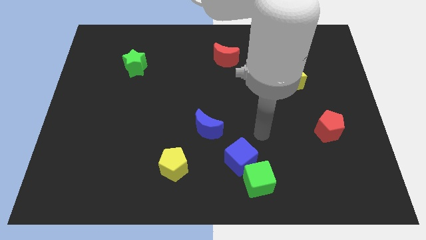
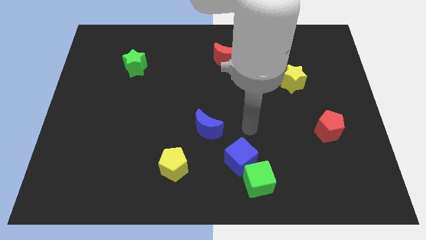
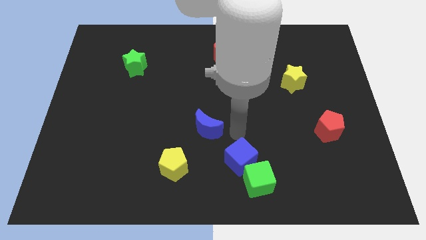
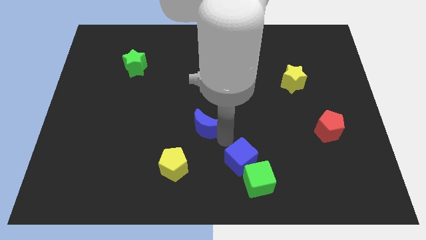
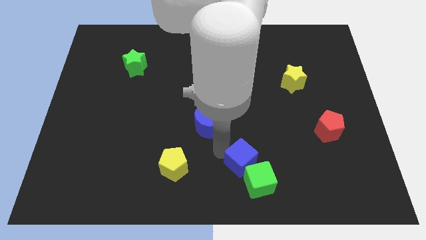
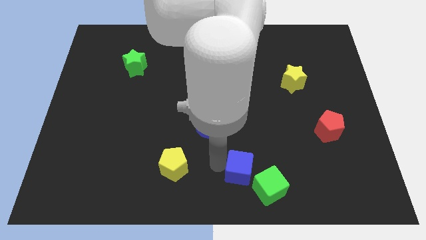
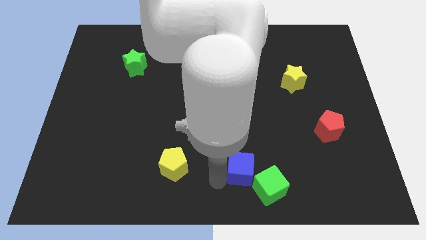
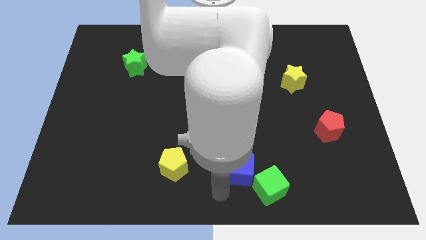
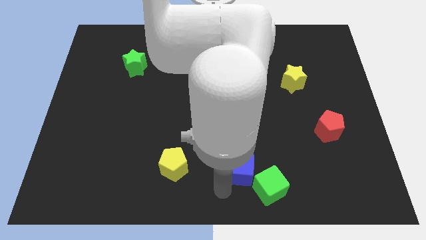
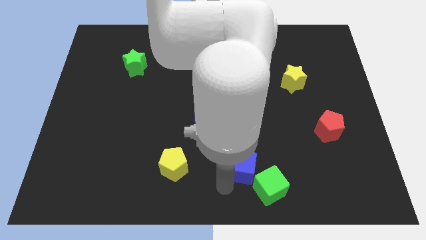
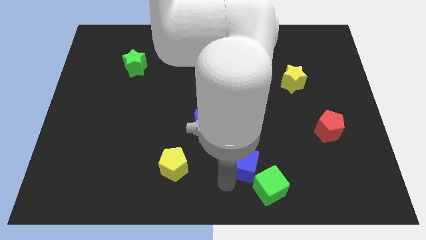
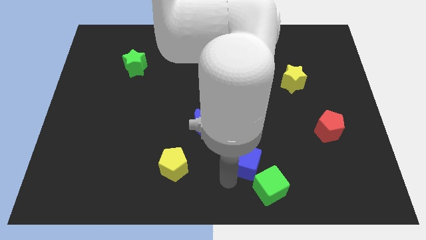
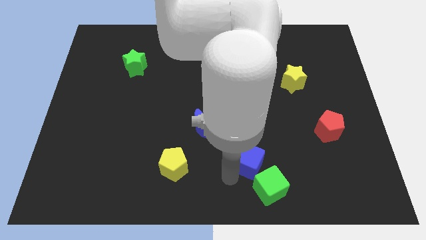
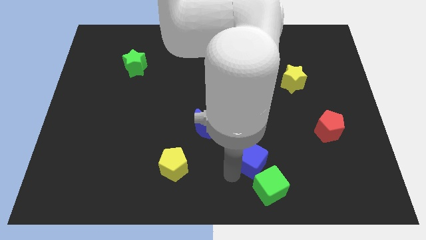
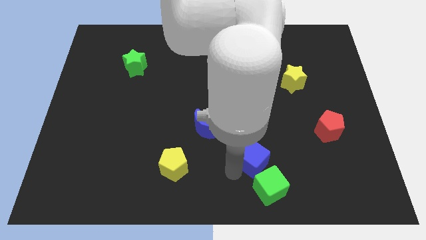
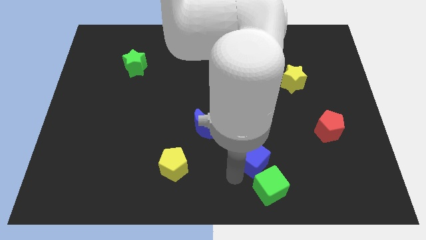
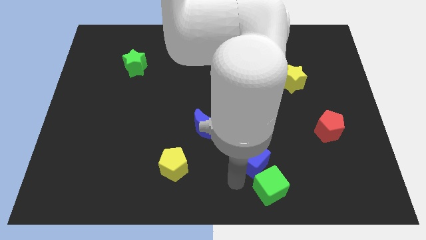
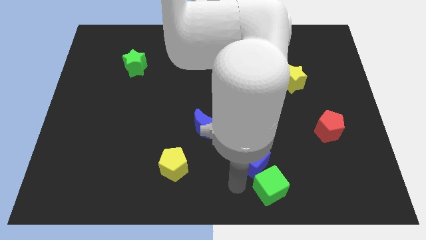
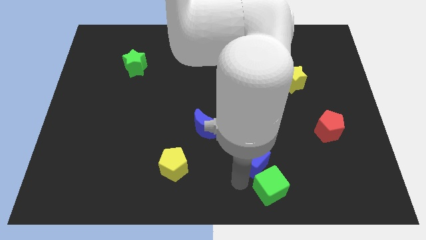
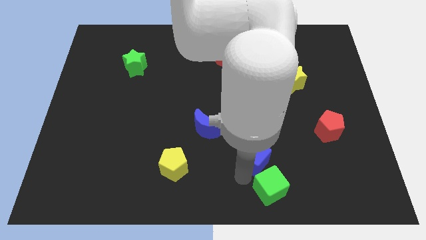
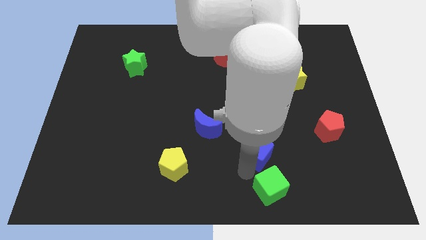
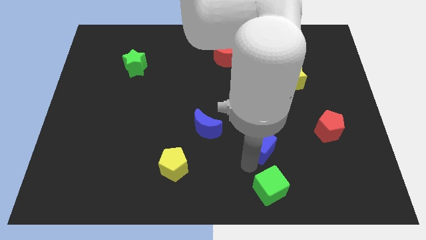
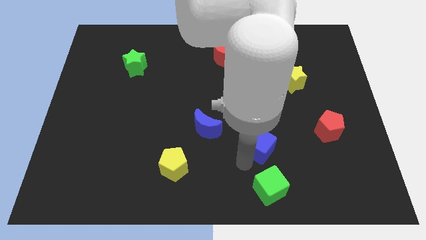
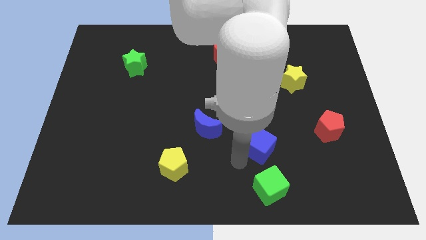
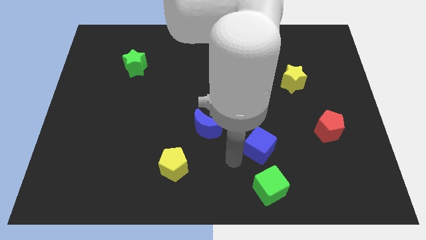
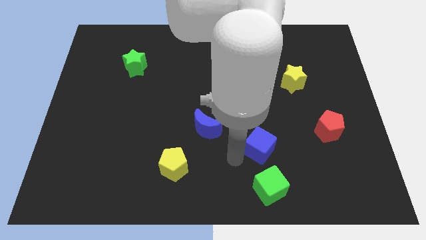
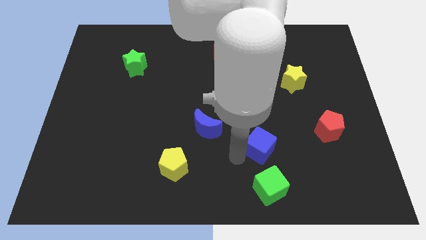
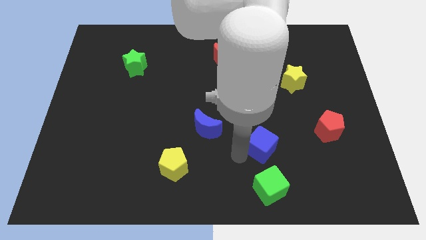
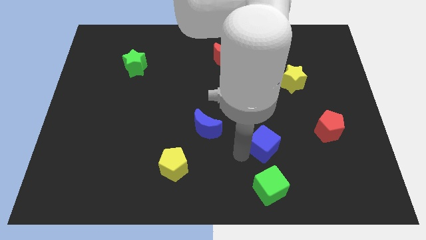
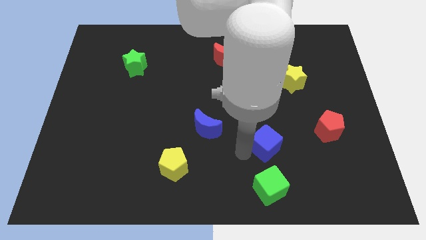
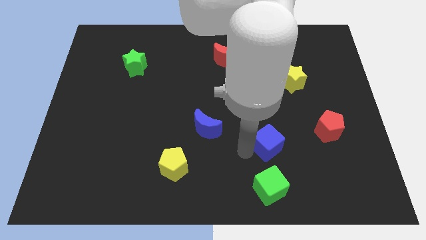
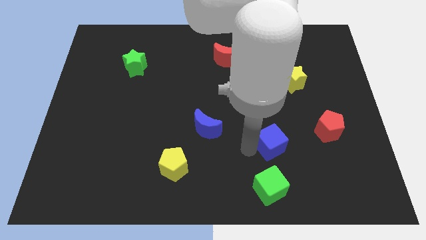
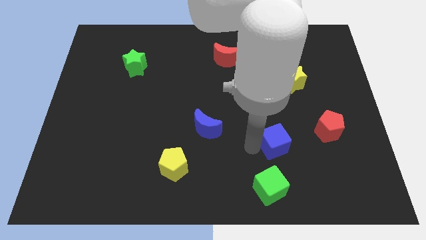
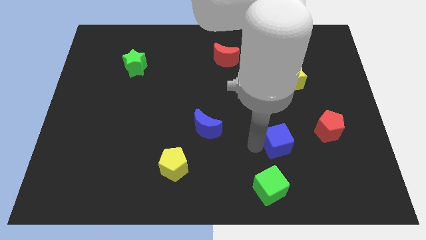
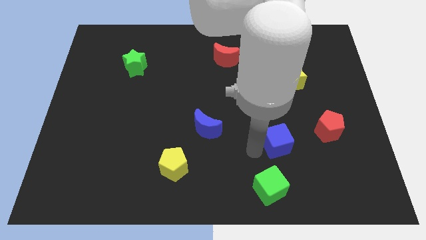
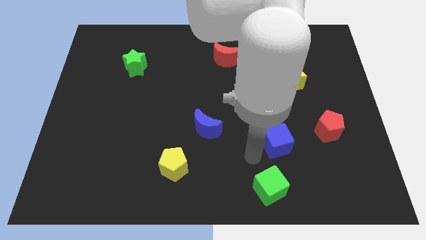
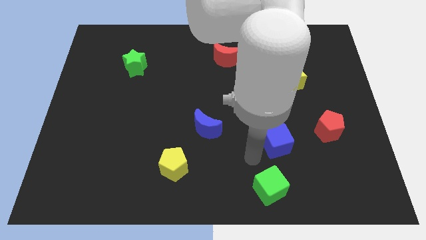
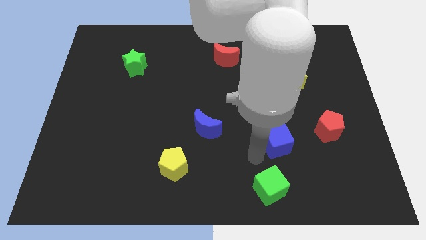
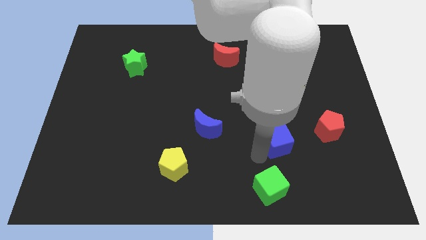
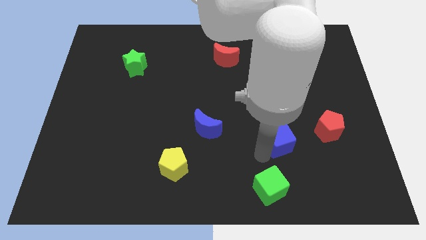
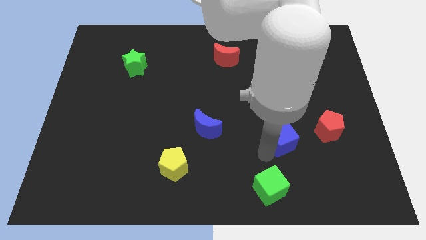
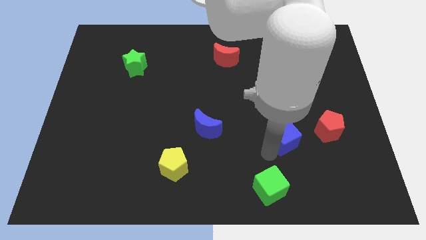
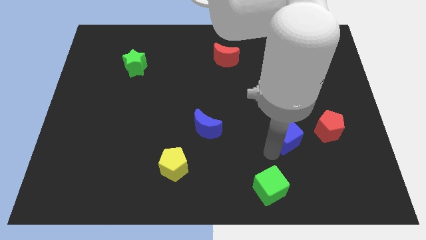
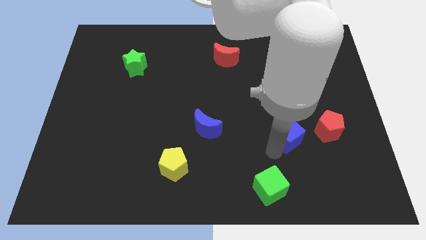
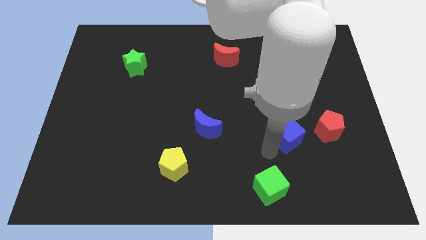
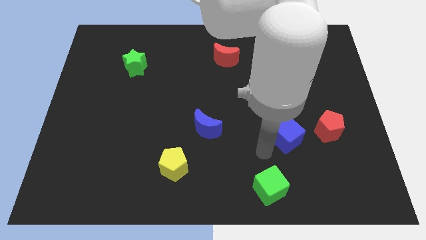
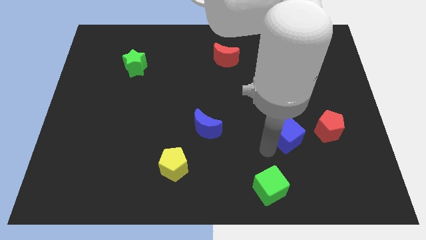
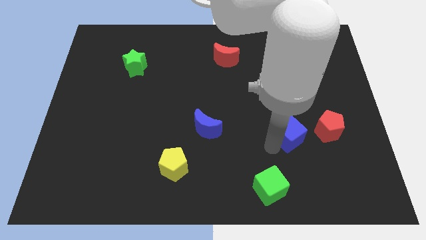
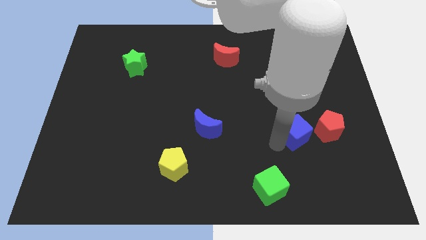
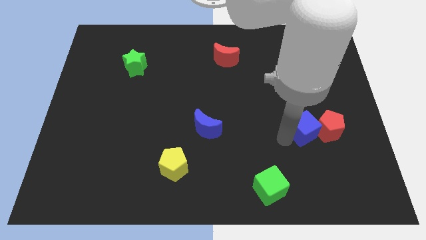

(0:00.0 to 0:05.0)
put the blue cube next to the red pentagon

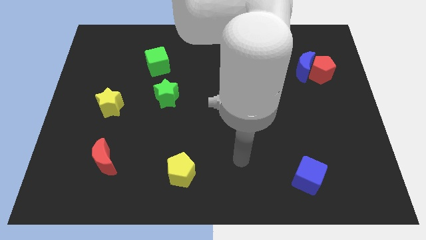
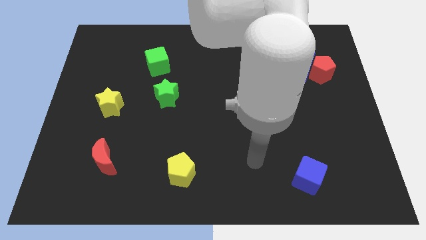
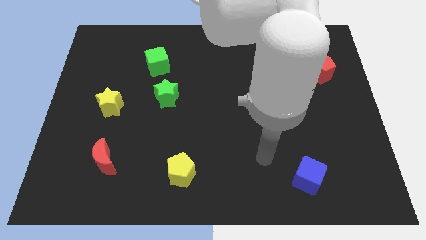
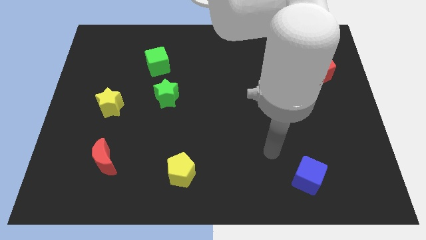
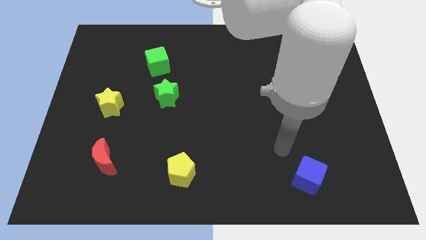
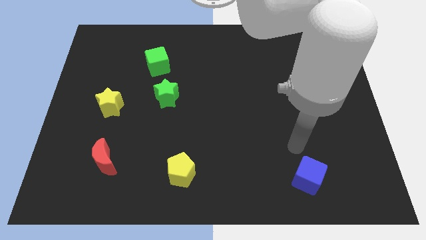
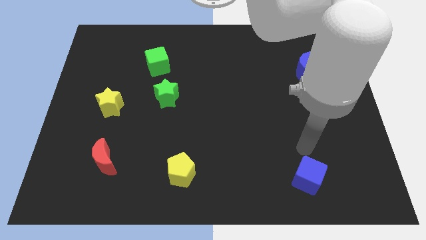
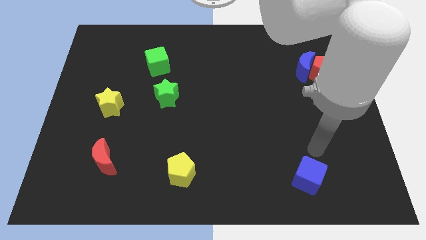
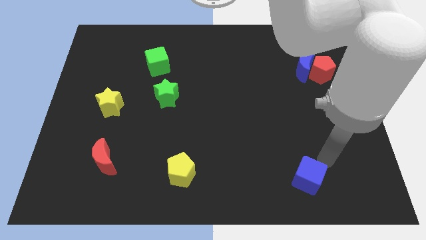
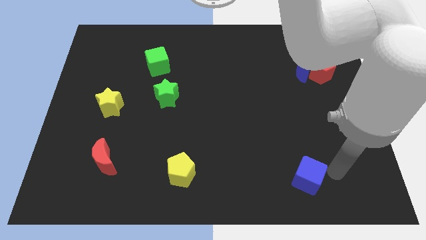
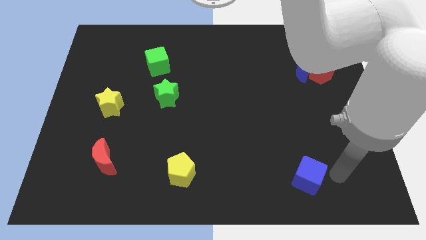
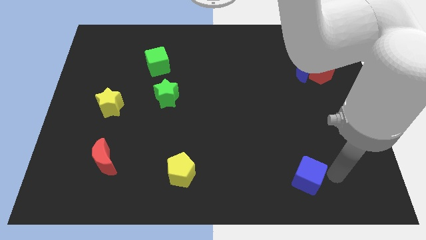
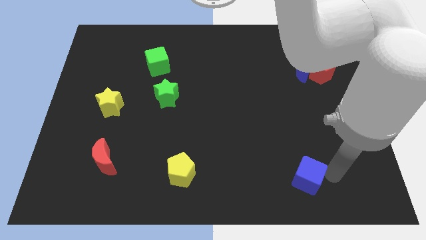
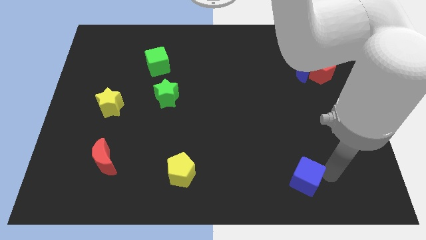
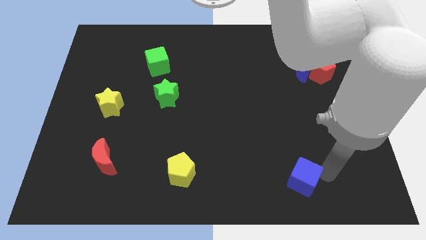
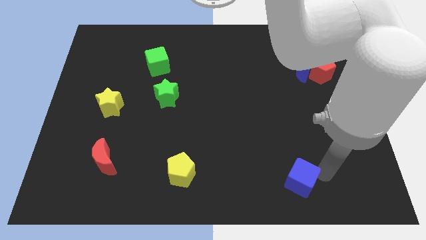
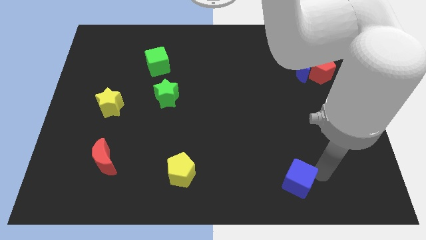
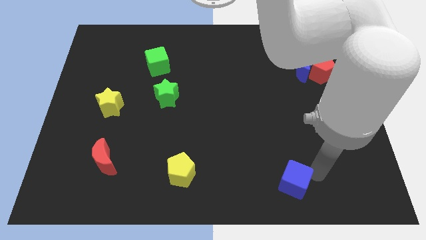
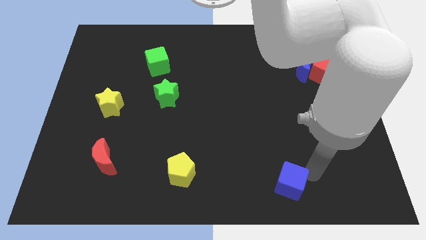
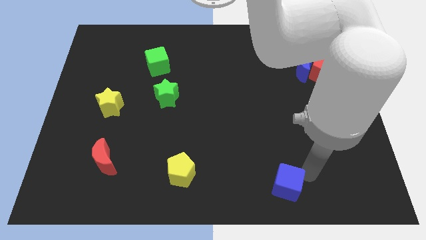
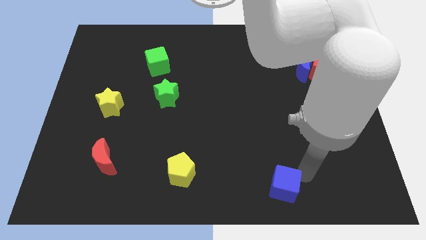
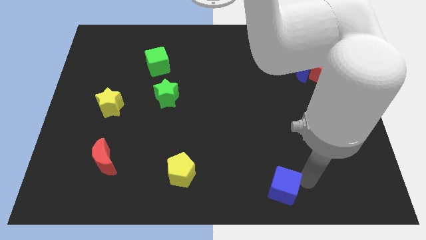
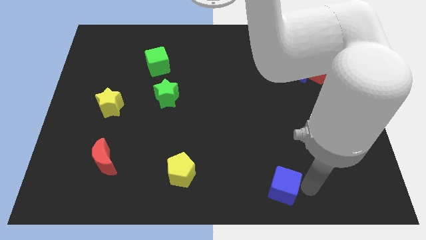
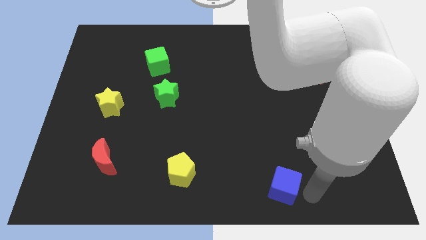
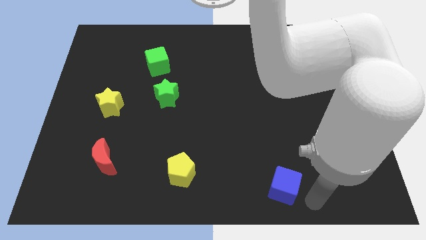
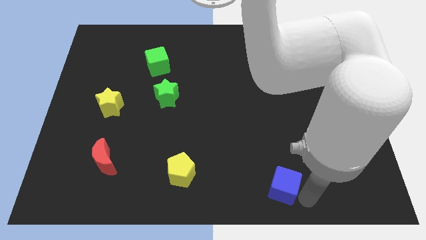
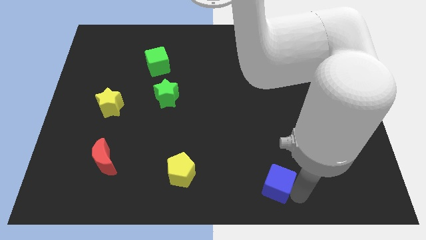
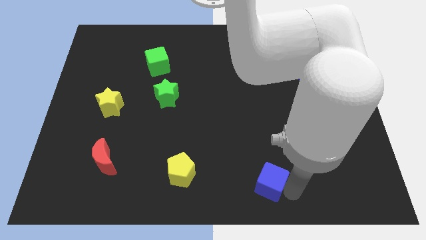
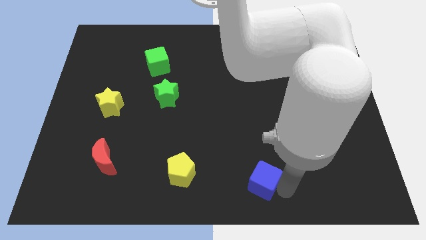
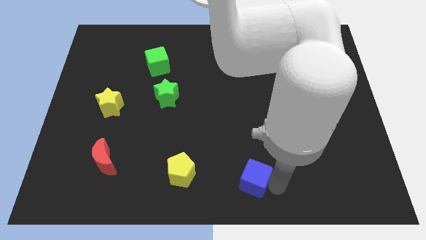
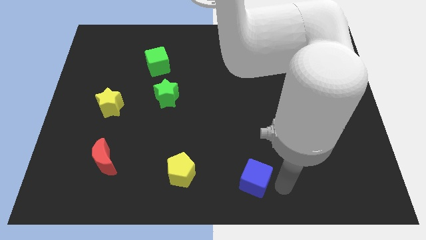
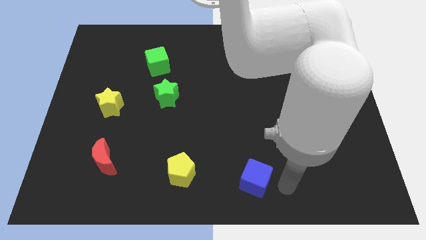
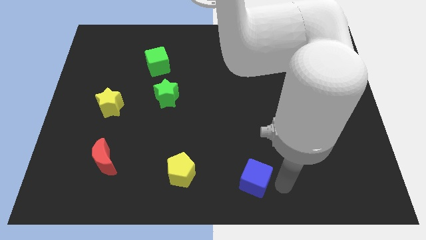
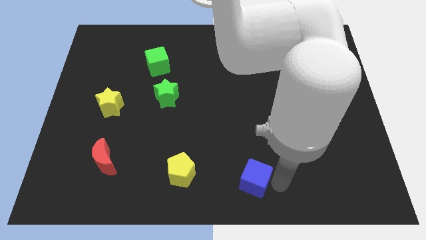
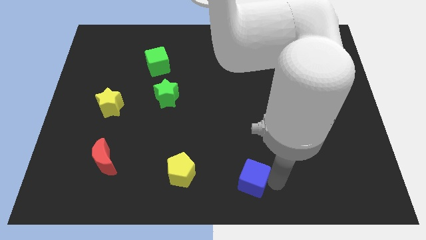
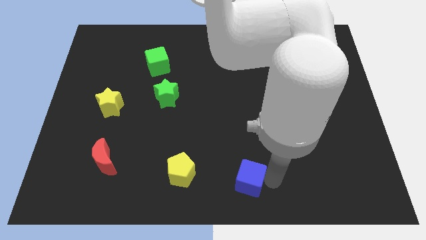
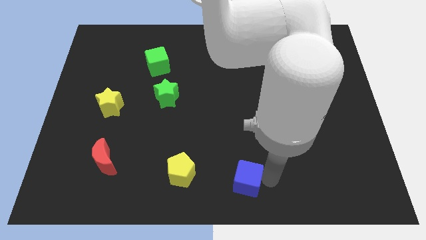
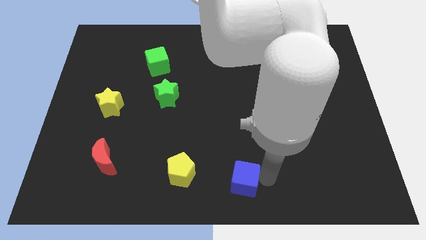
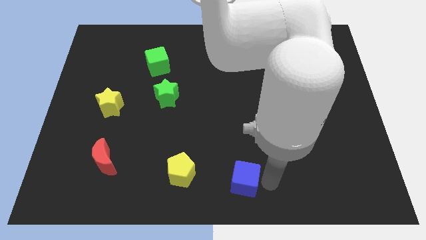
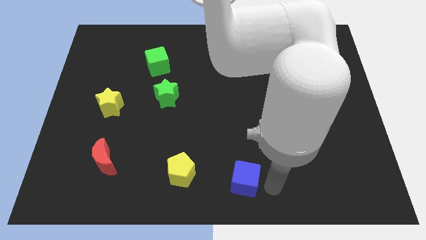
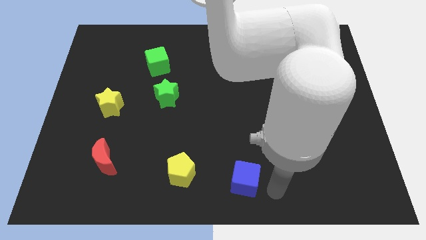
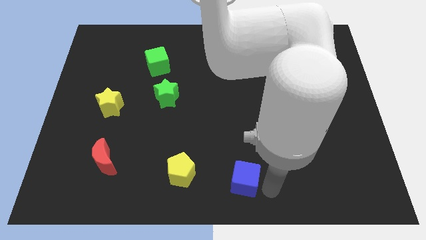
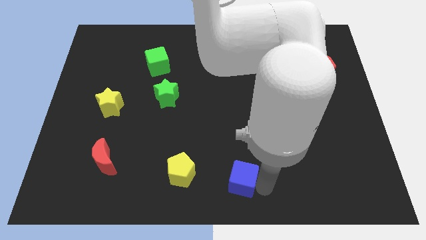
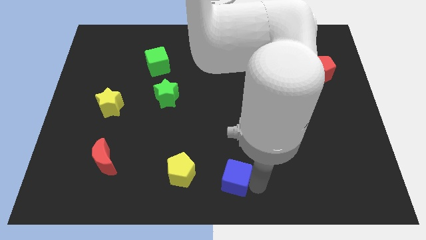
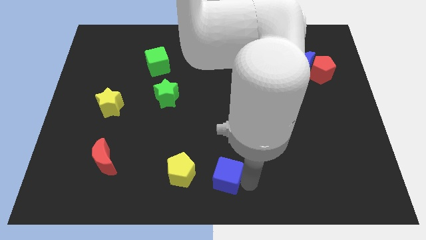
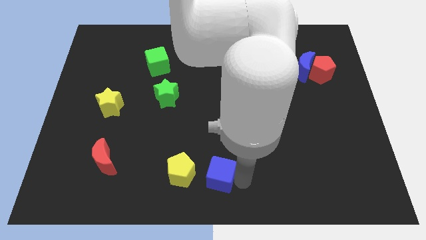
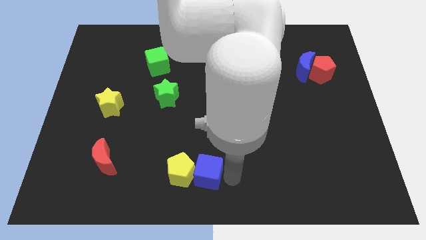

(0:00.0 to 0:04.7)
push the blue cube towards the yellow pentagon
